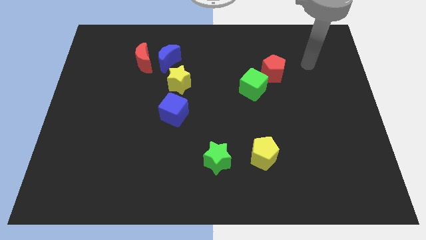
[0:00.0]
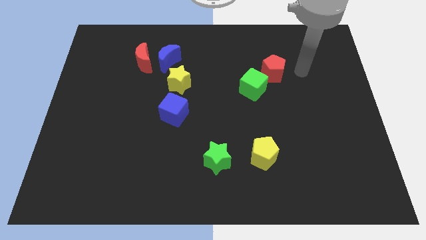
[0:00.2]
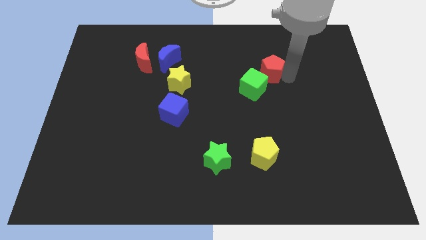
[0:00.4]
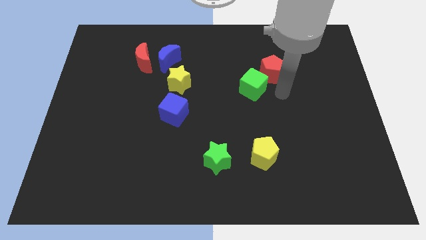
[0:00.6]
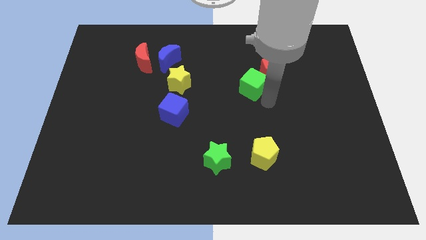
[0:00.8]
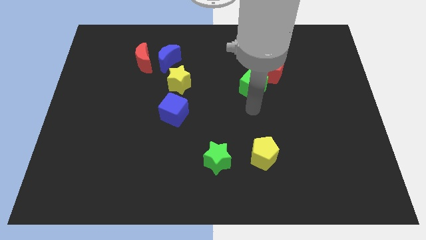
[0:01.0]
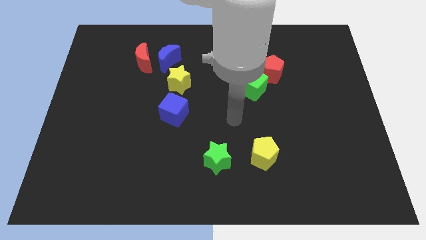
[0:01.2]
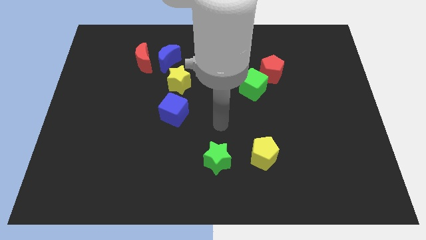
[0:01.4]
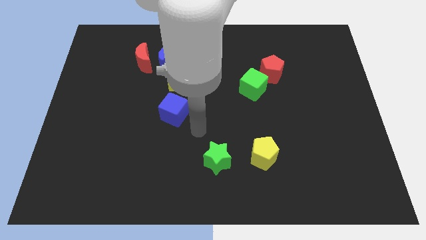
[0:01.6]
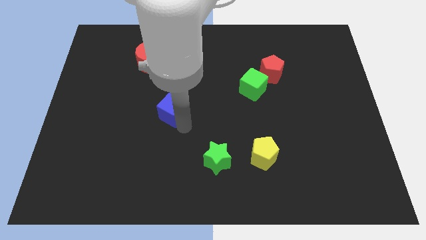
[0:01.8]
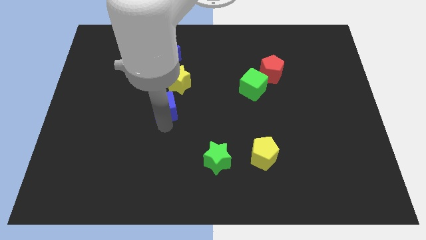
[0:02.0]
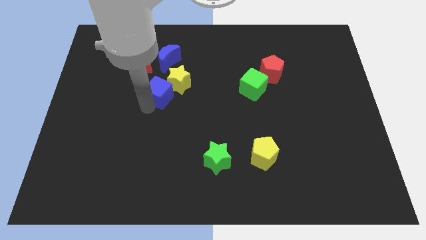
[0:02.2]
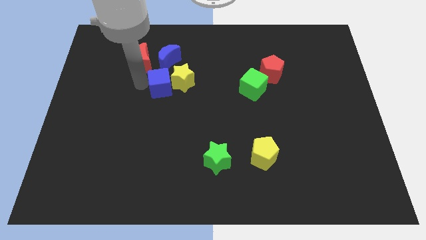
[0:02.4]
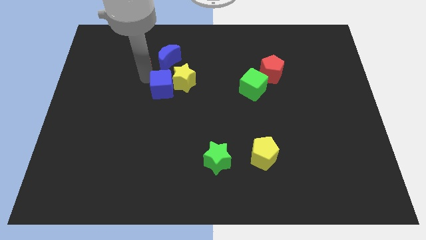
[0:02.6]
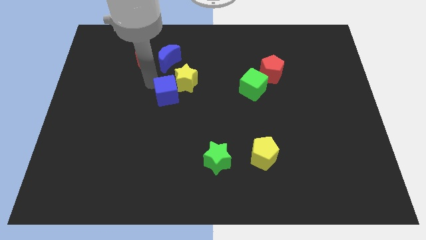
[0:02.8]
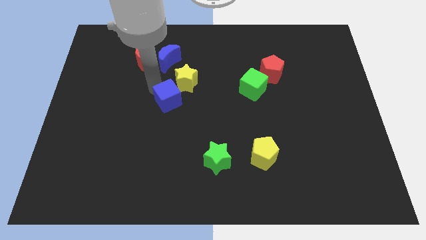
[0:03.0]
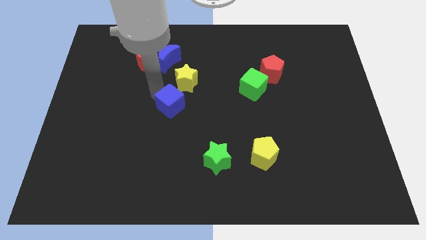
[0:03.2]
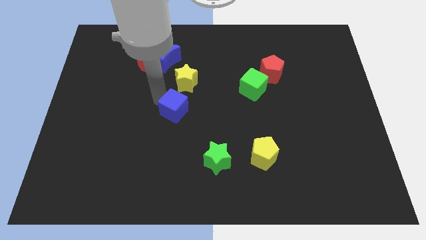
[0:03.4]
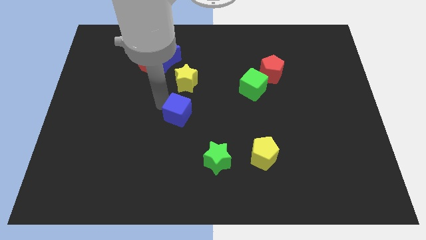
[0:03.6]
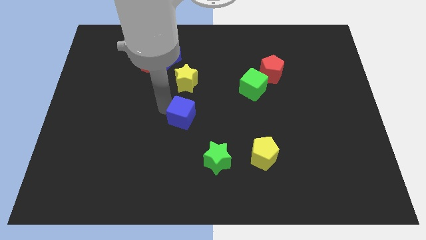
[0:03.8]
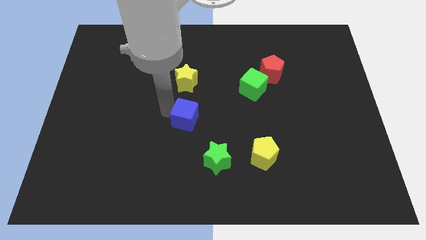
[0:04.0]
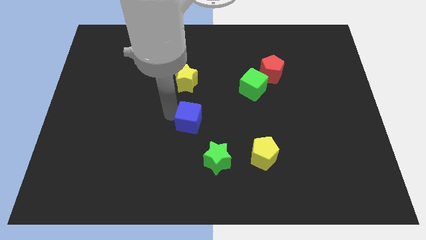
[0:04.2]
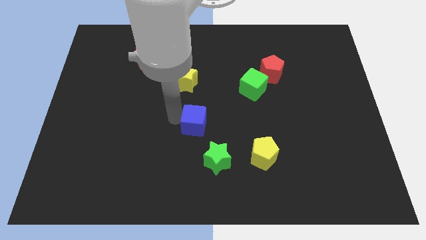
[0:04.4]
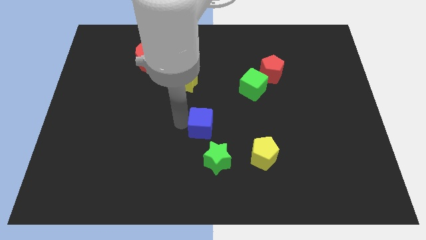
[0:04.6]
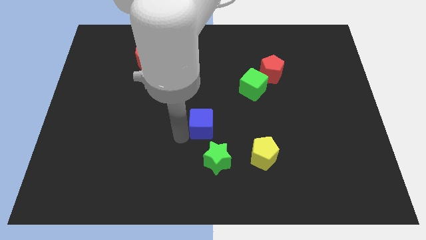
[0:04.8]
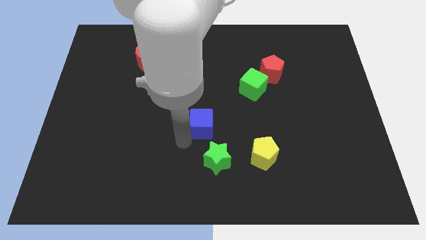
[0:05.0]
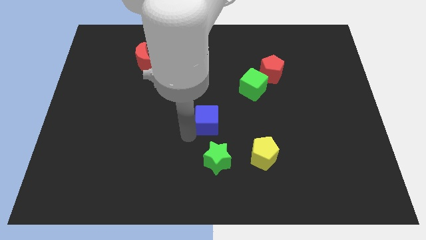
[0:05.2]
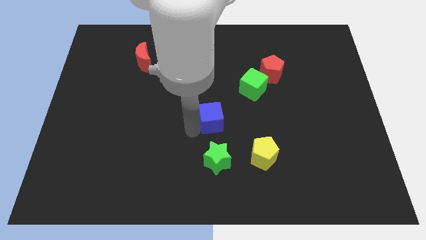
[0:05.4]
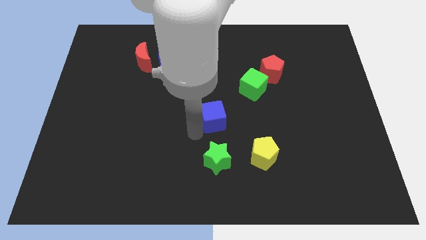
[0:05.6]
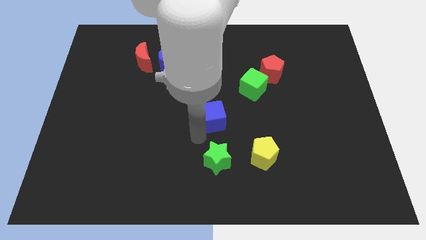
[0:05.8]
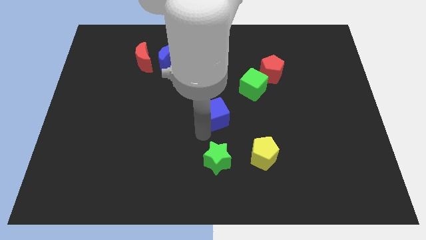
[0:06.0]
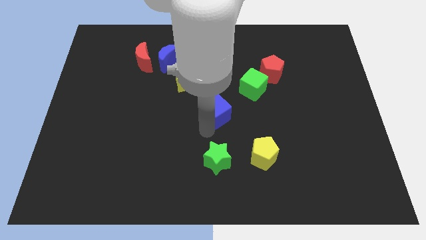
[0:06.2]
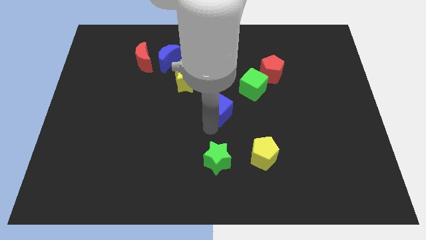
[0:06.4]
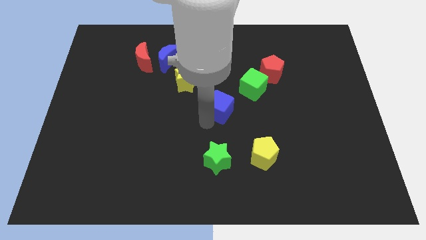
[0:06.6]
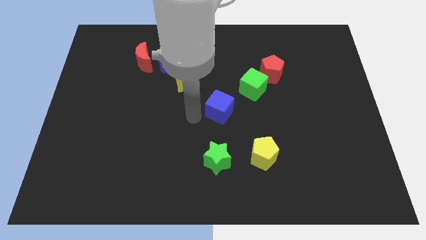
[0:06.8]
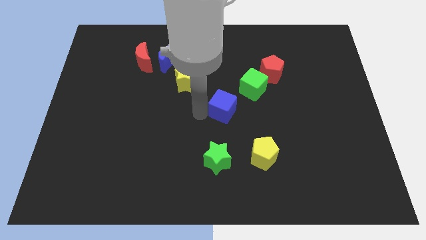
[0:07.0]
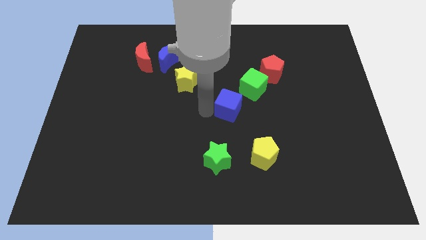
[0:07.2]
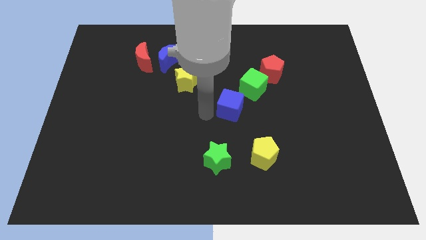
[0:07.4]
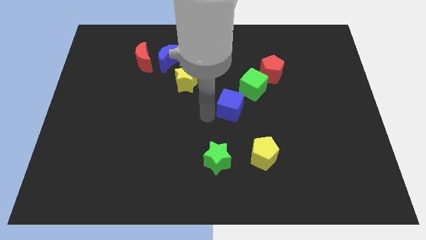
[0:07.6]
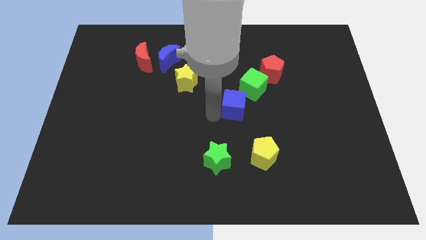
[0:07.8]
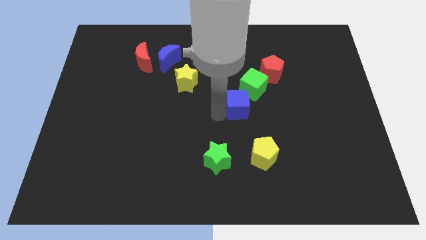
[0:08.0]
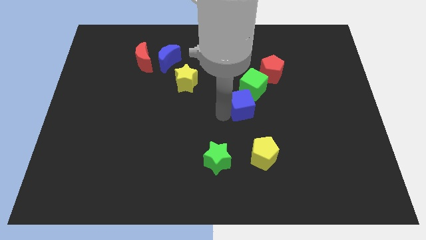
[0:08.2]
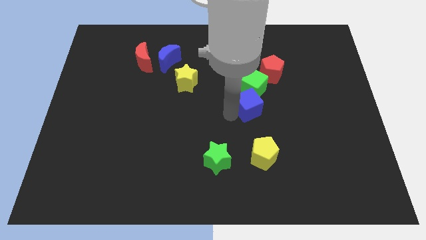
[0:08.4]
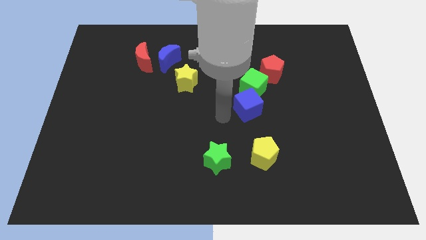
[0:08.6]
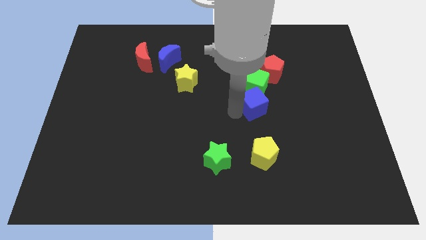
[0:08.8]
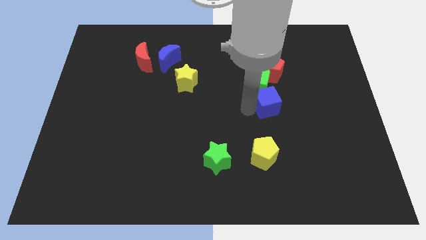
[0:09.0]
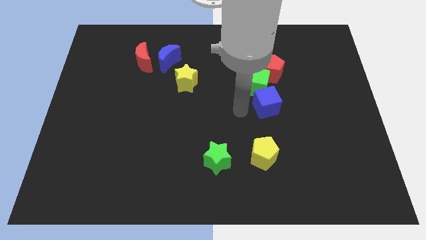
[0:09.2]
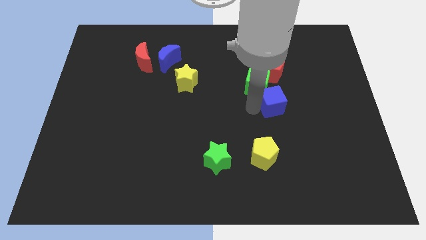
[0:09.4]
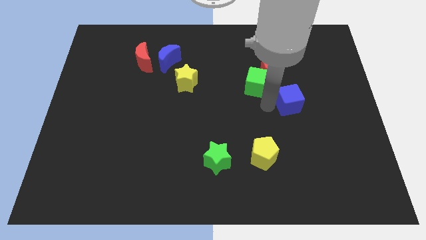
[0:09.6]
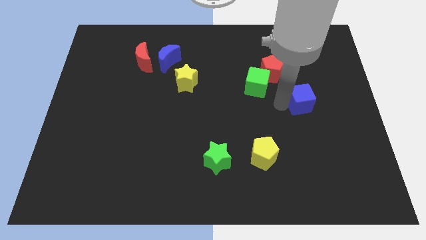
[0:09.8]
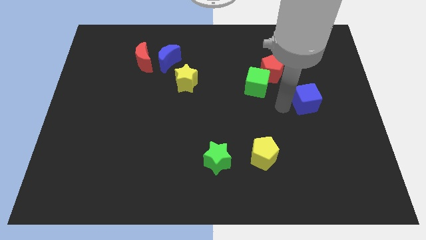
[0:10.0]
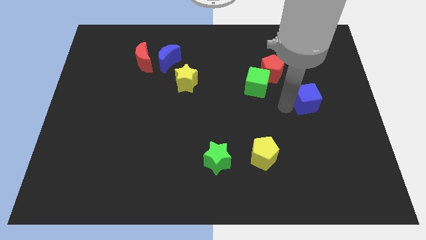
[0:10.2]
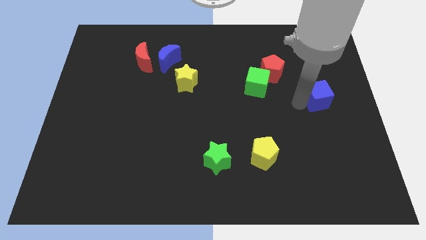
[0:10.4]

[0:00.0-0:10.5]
slide the blue cube to the right side of the board

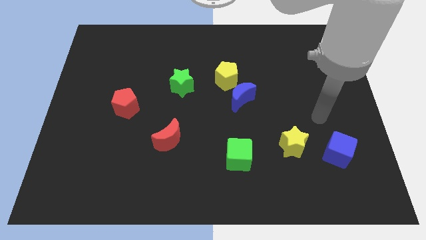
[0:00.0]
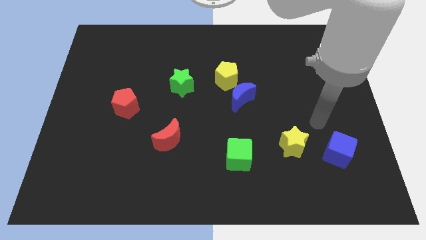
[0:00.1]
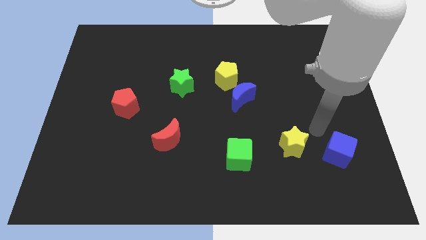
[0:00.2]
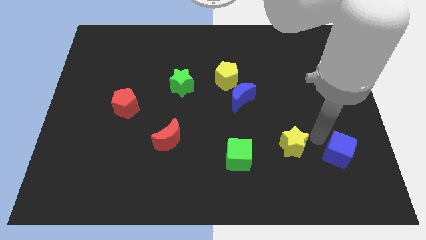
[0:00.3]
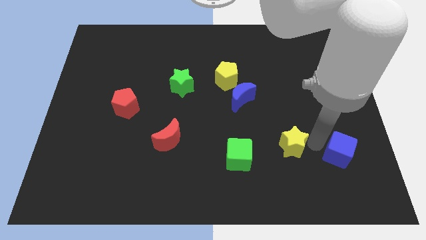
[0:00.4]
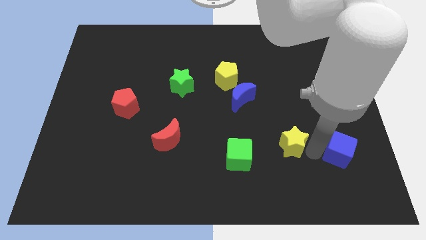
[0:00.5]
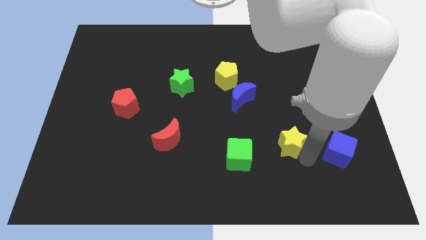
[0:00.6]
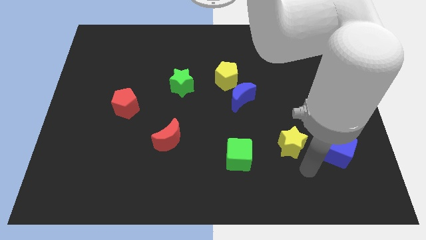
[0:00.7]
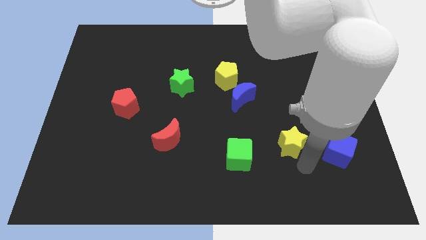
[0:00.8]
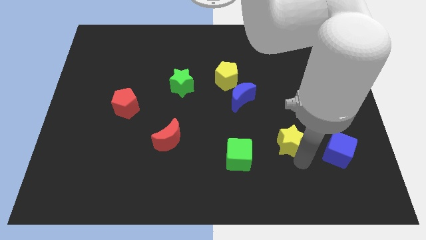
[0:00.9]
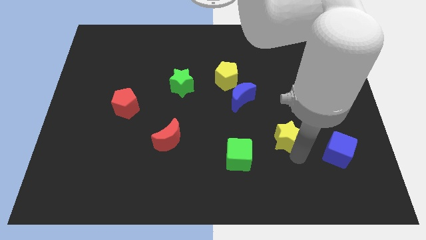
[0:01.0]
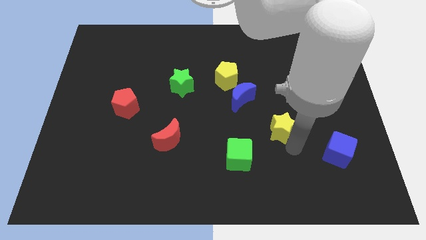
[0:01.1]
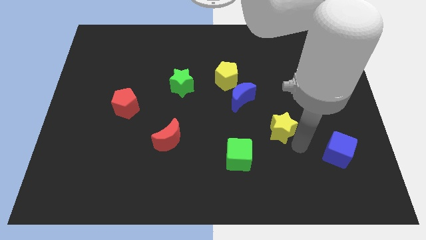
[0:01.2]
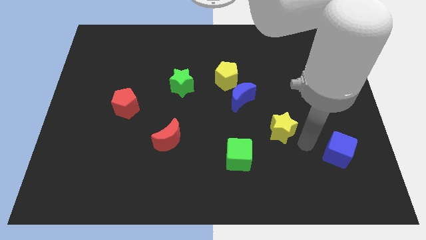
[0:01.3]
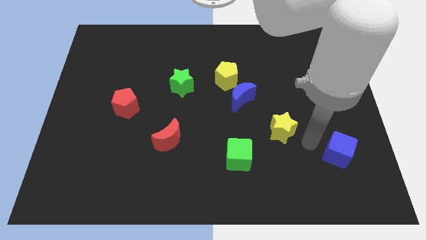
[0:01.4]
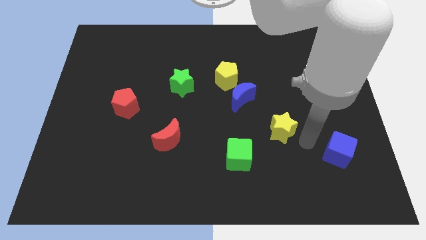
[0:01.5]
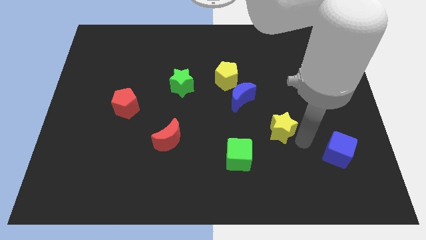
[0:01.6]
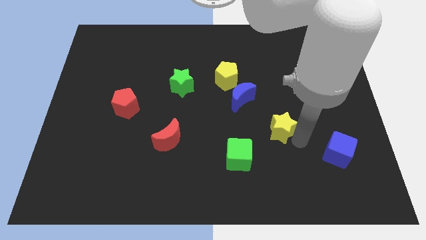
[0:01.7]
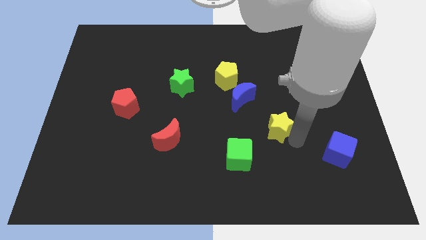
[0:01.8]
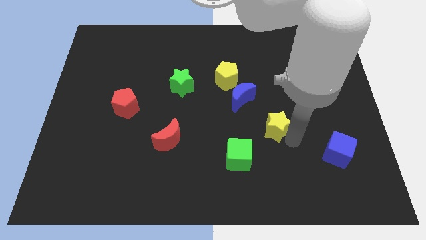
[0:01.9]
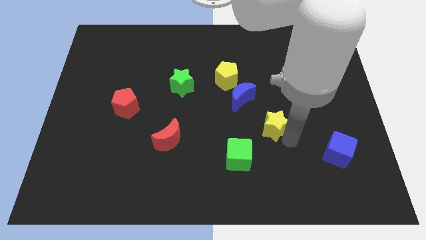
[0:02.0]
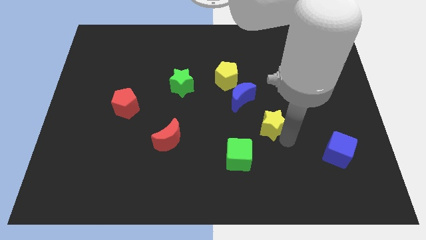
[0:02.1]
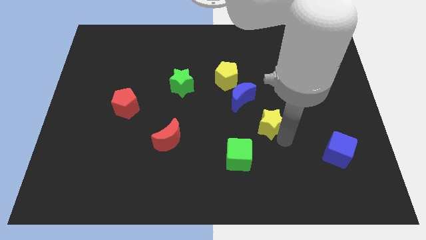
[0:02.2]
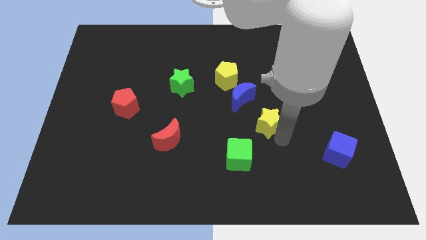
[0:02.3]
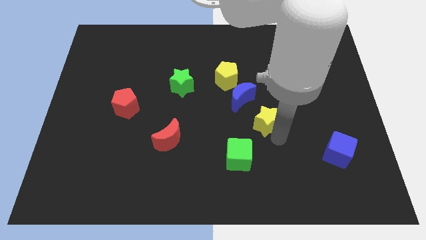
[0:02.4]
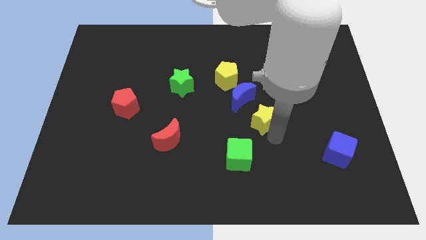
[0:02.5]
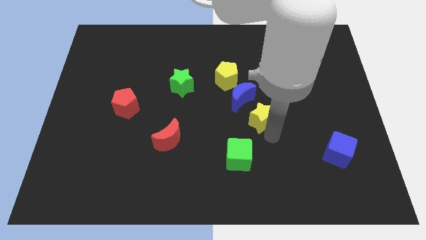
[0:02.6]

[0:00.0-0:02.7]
move the yellow star to the center
